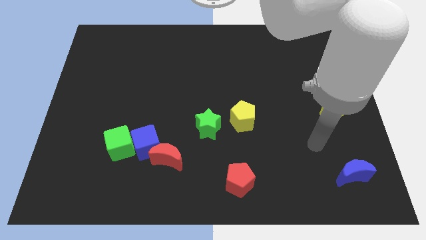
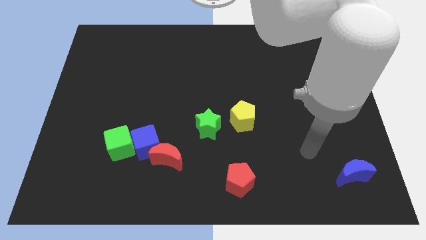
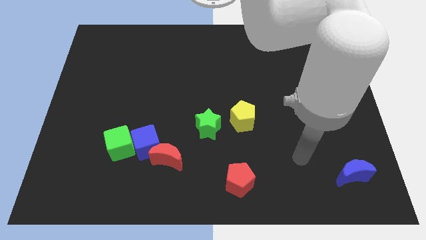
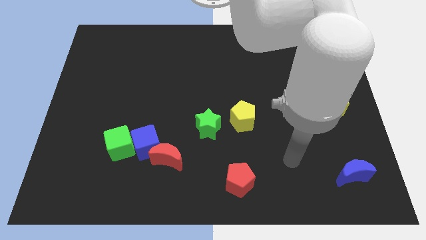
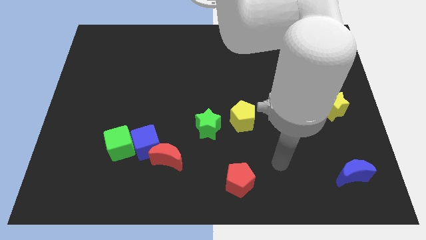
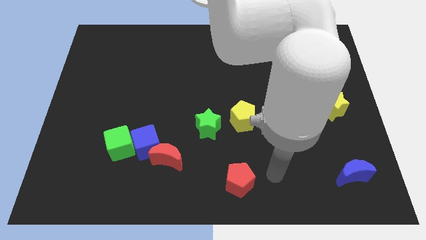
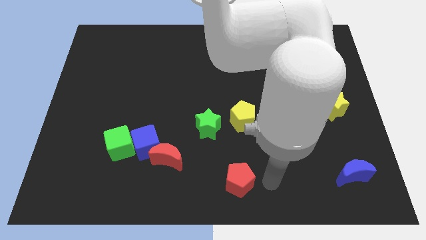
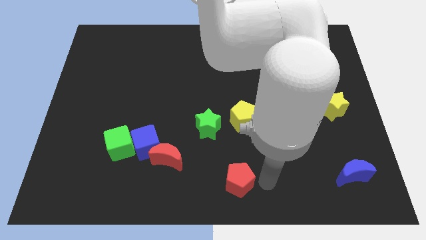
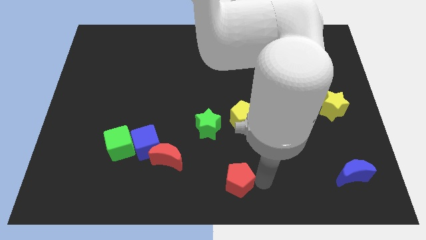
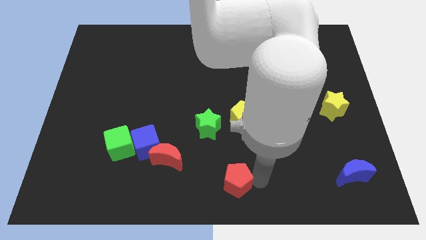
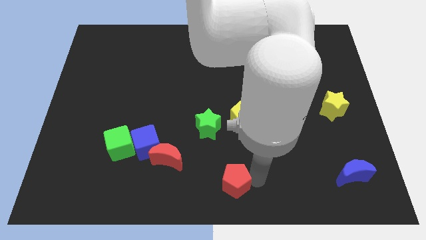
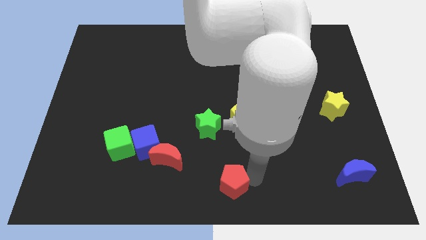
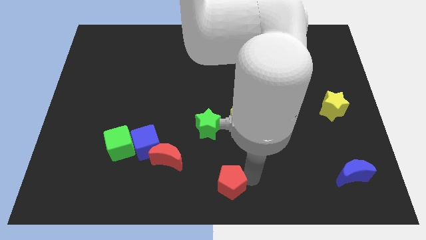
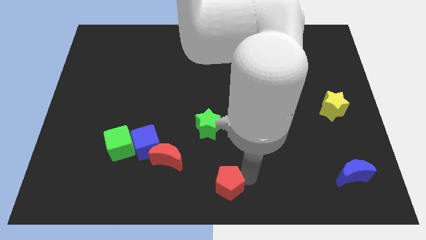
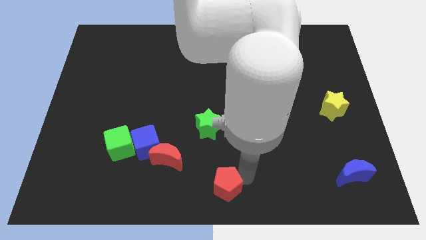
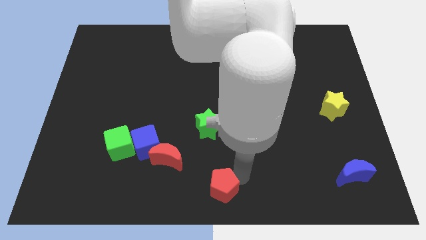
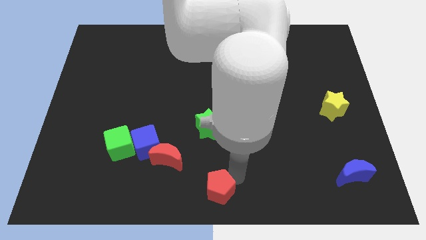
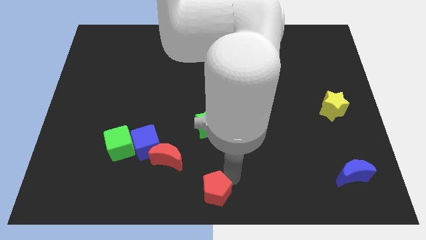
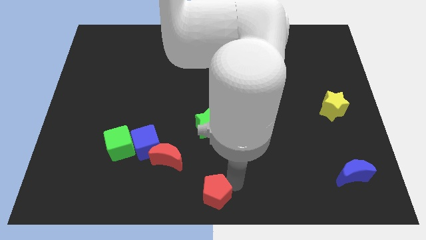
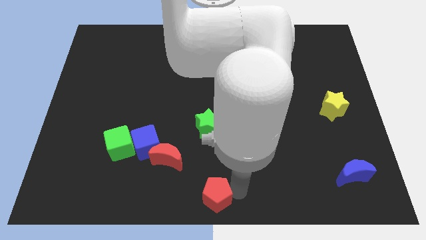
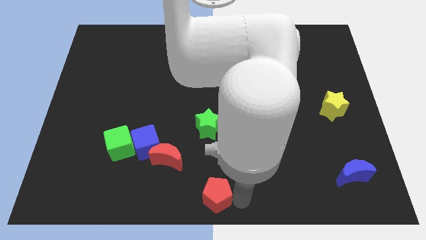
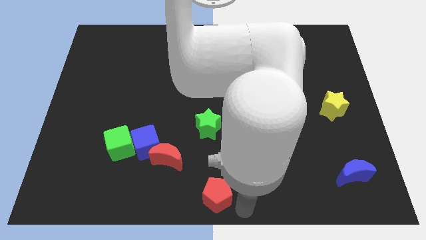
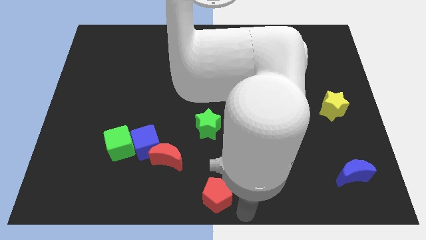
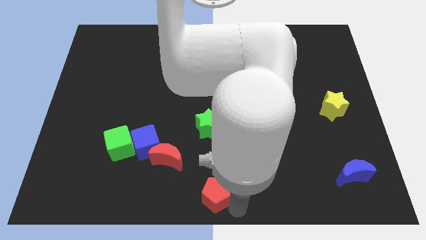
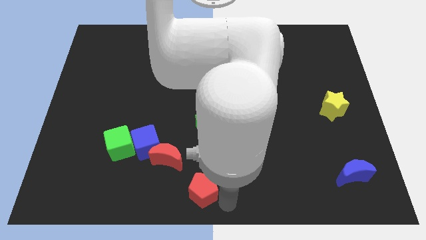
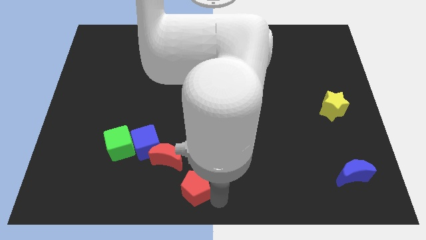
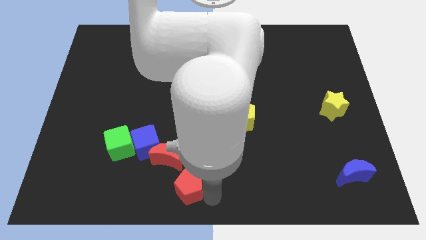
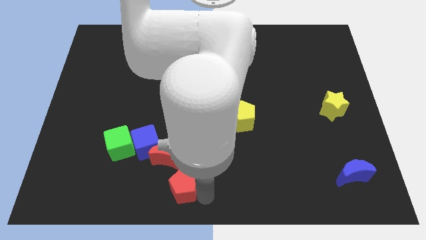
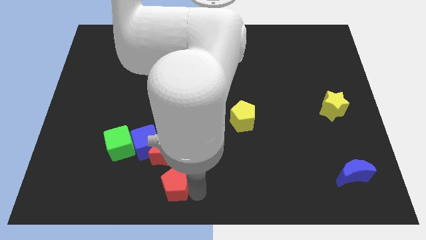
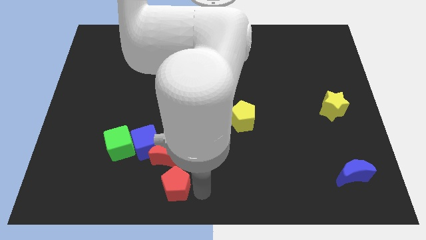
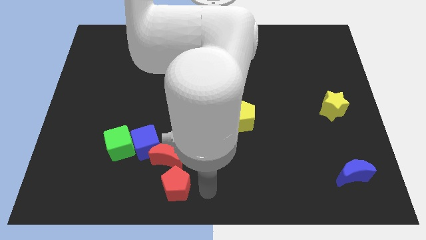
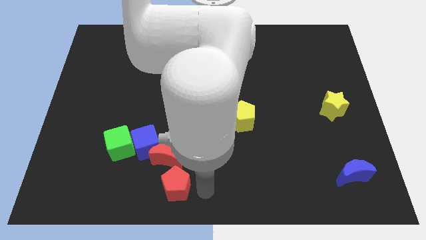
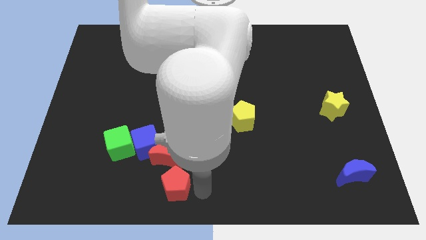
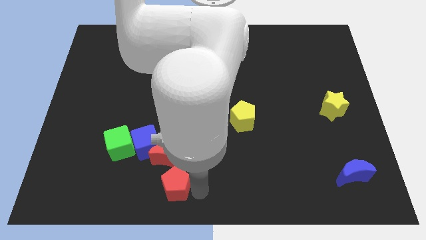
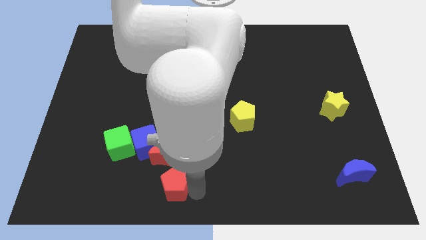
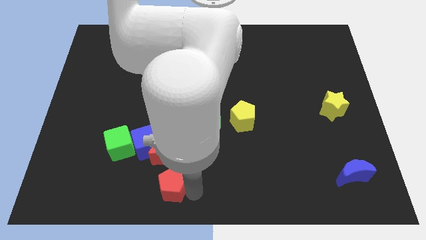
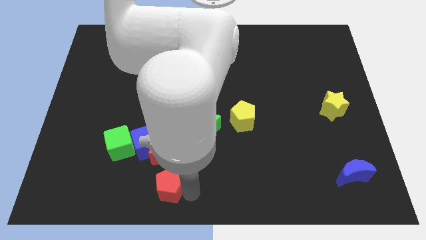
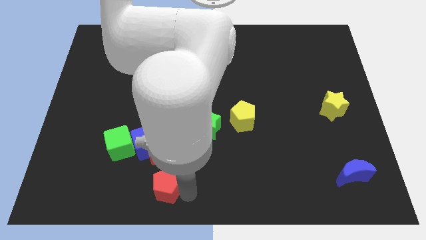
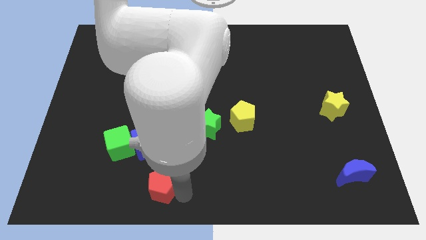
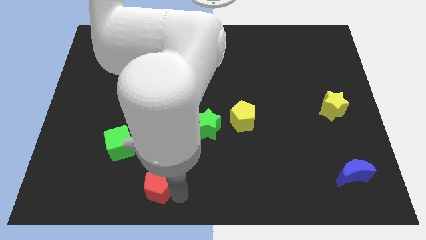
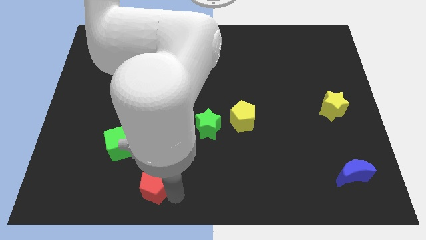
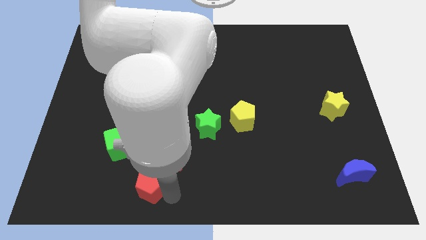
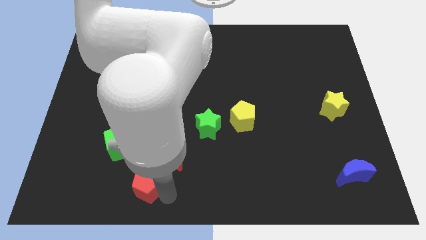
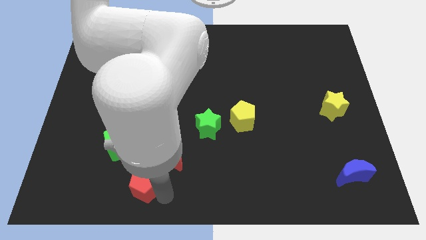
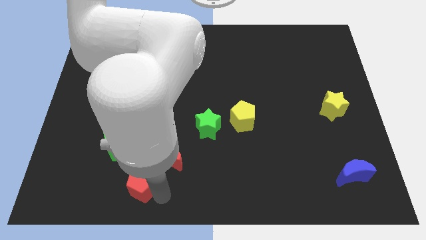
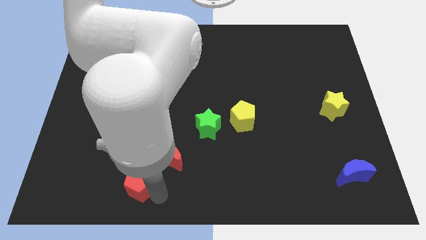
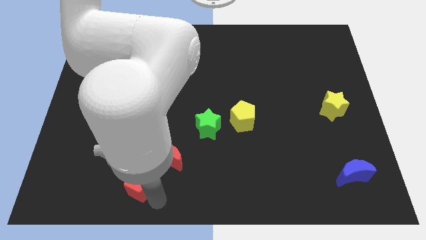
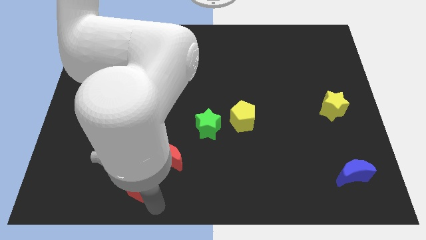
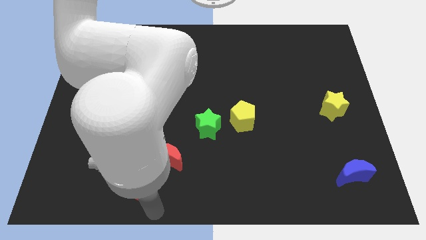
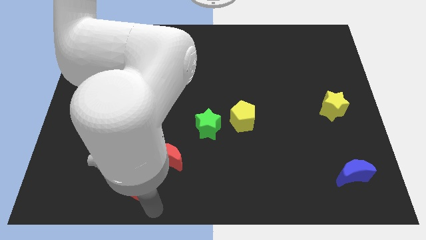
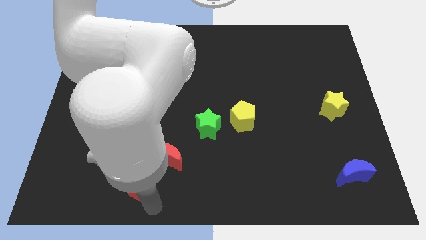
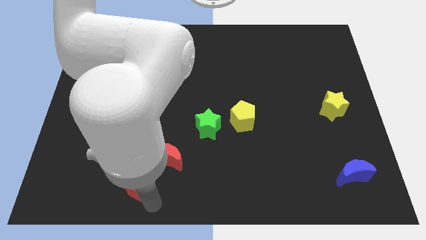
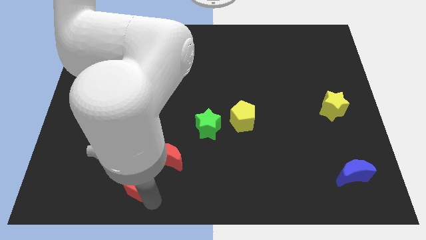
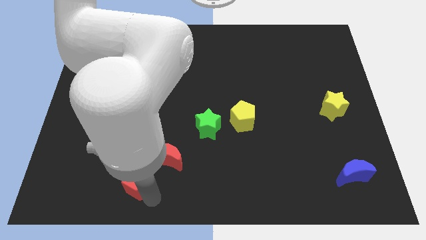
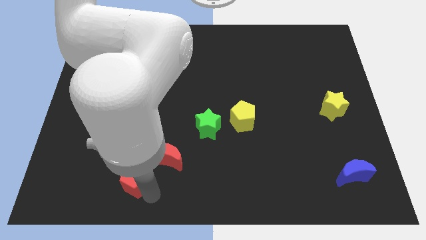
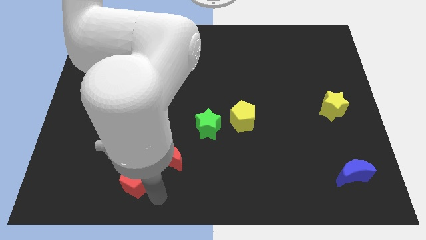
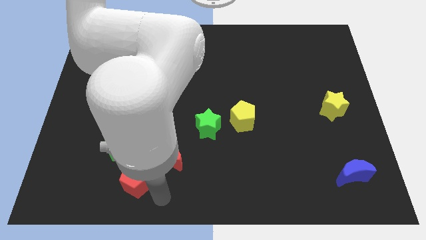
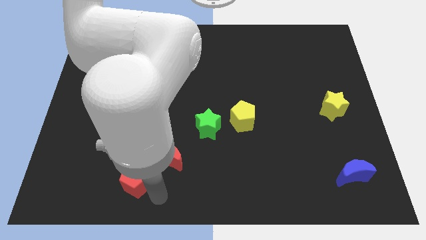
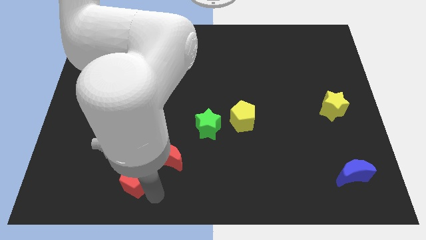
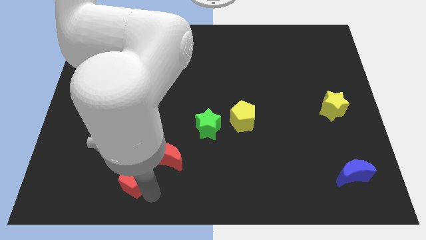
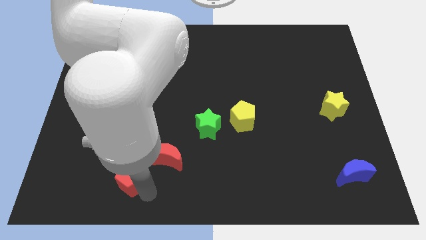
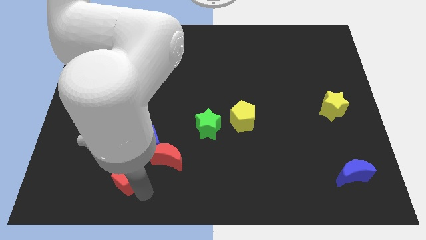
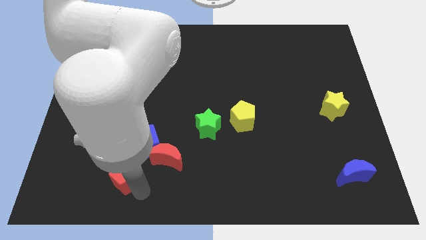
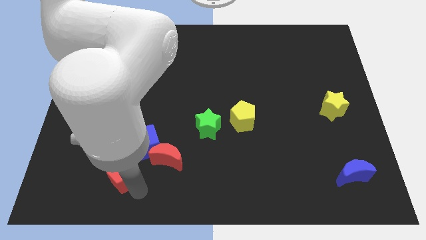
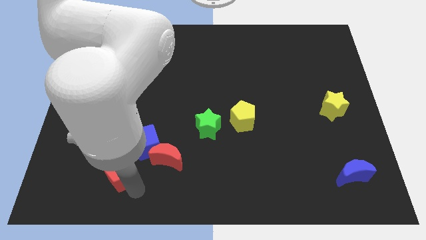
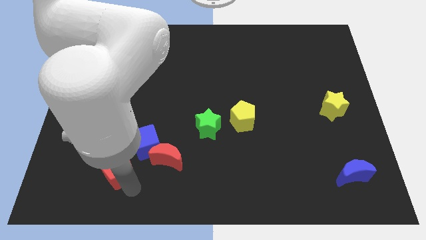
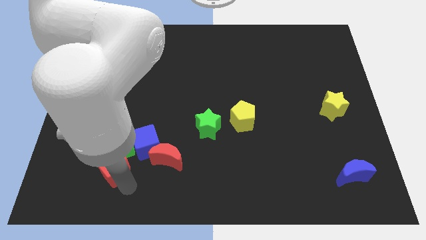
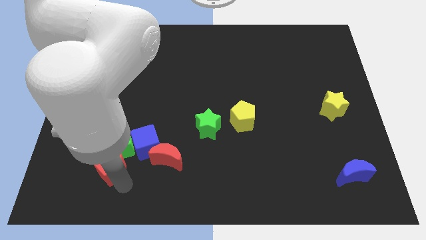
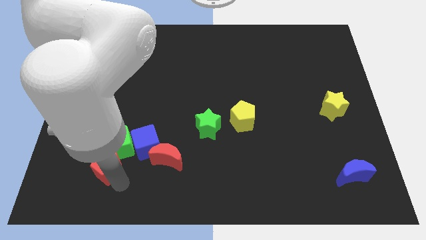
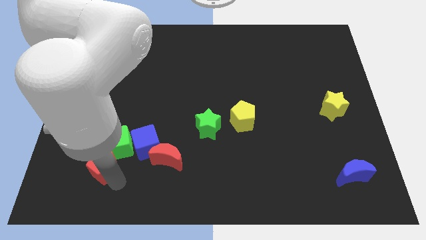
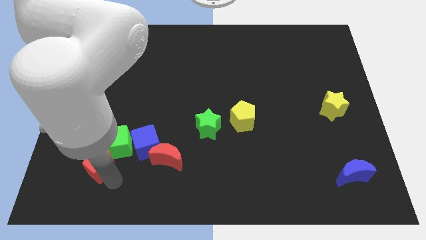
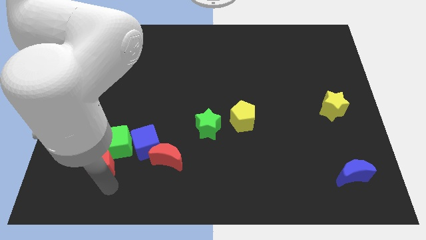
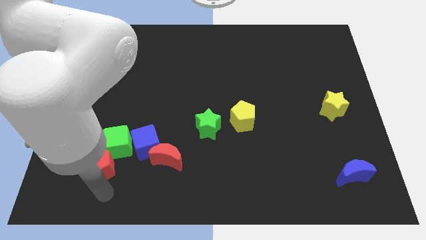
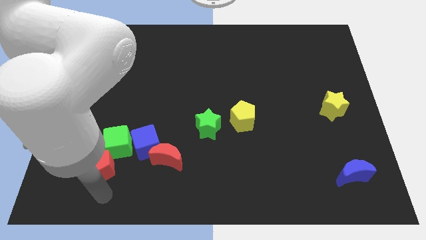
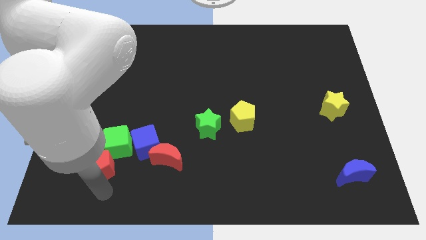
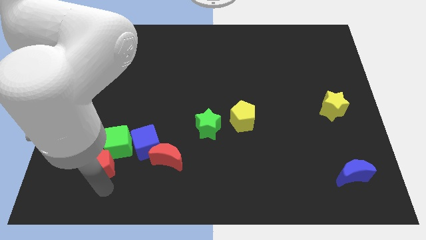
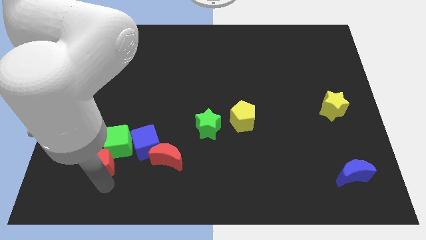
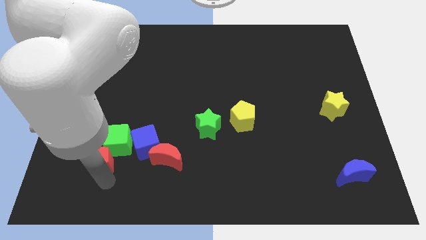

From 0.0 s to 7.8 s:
put the red pentagon just left of the blue cube
